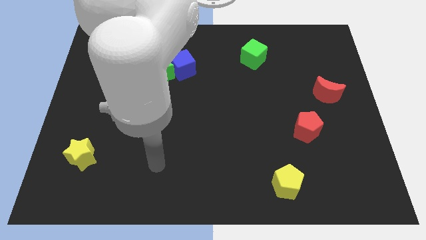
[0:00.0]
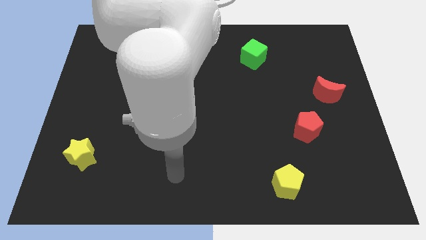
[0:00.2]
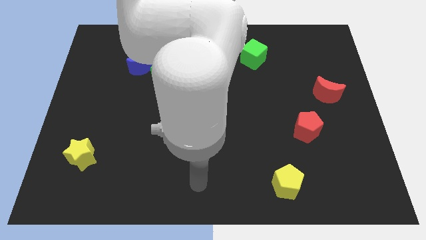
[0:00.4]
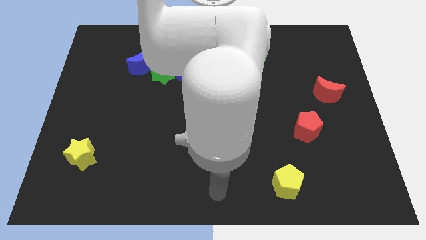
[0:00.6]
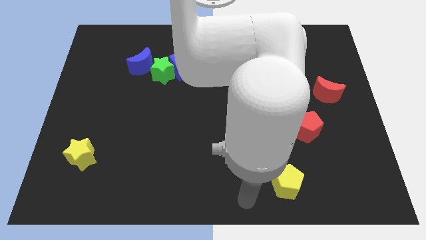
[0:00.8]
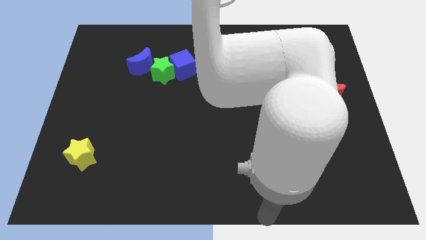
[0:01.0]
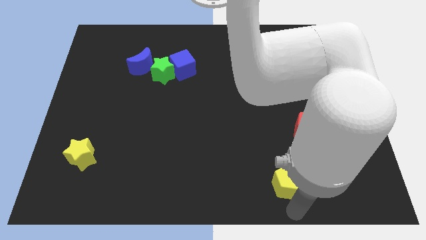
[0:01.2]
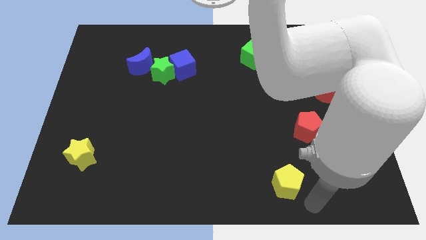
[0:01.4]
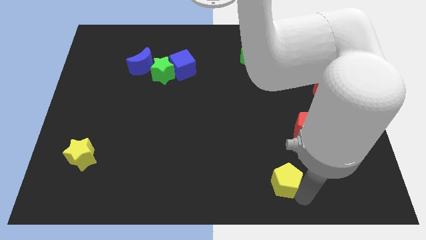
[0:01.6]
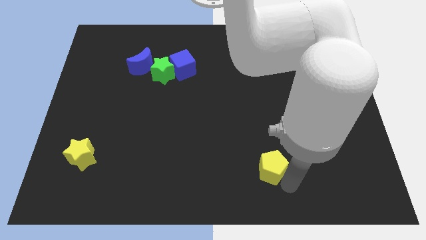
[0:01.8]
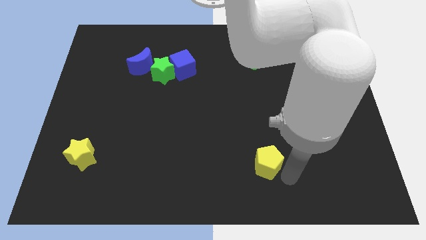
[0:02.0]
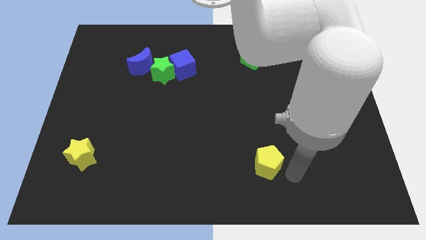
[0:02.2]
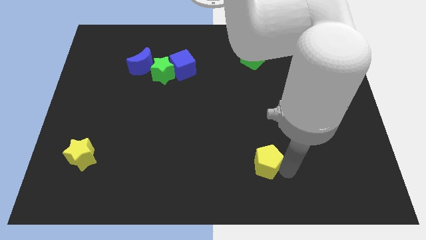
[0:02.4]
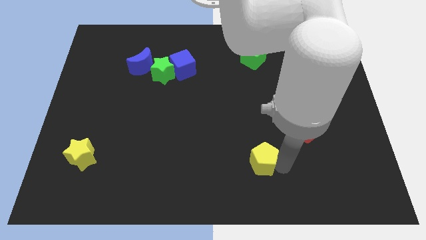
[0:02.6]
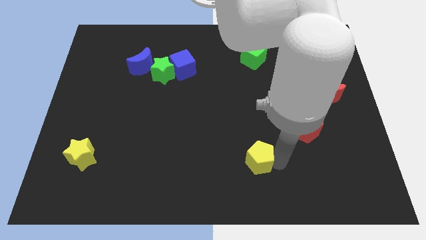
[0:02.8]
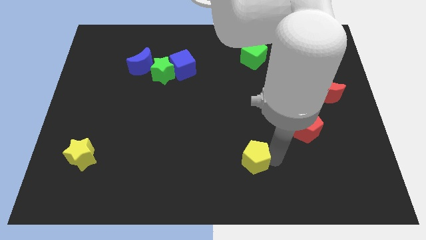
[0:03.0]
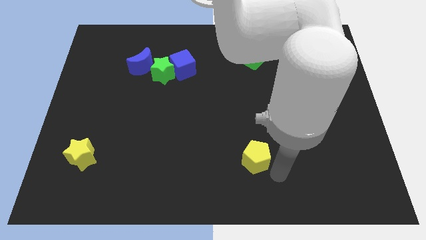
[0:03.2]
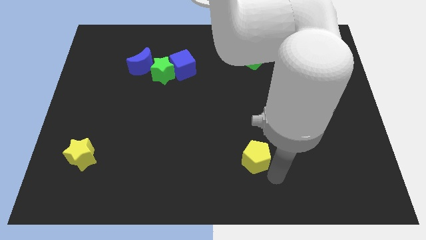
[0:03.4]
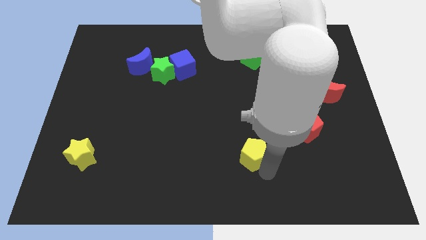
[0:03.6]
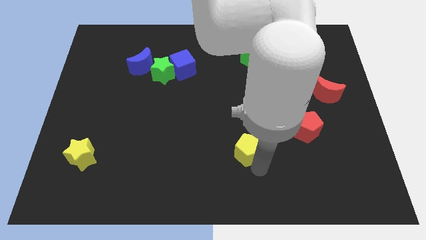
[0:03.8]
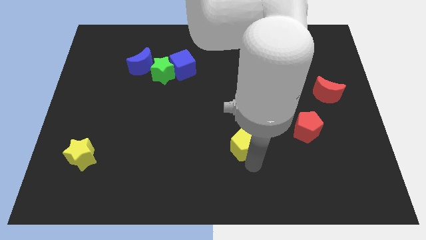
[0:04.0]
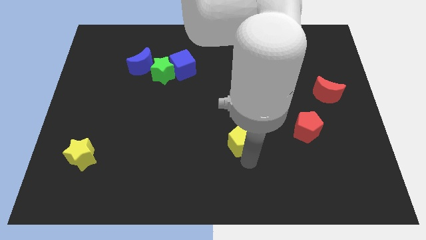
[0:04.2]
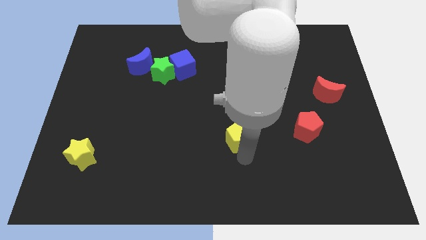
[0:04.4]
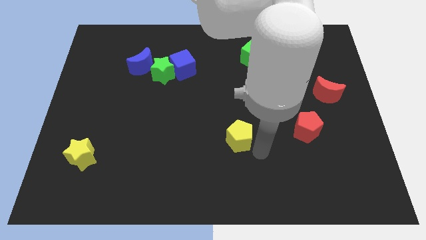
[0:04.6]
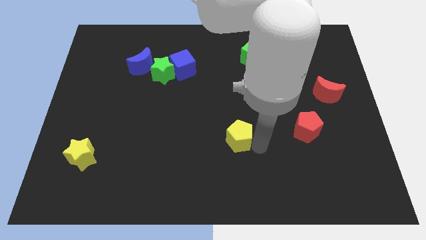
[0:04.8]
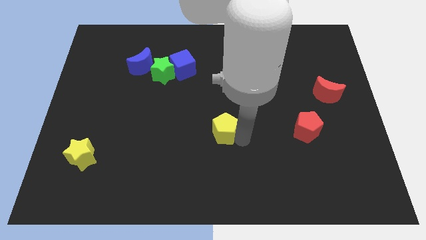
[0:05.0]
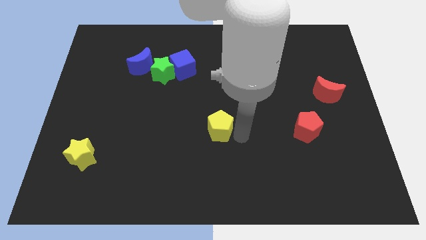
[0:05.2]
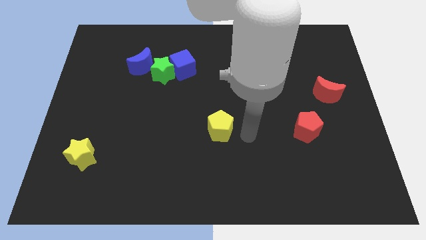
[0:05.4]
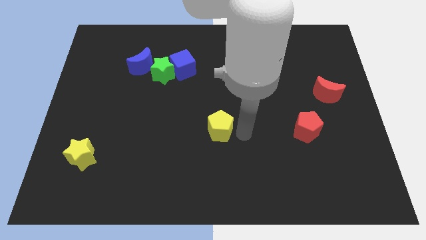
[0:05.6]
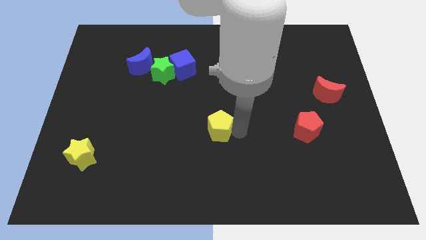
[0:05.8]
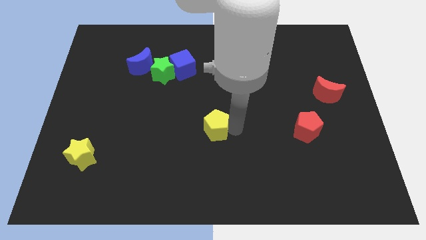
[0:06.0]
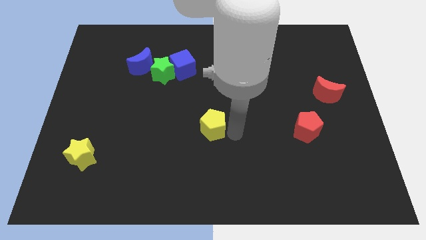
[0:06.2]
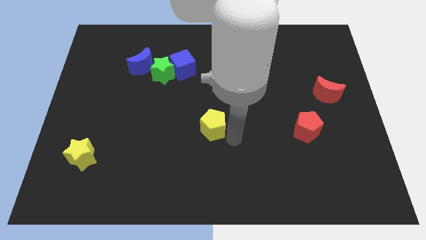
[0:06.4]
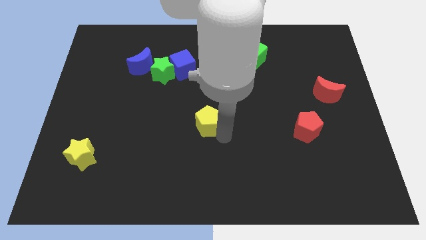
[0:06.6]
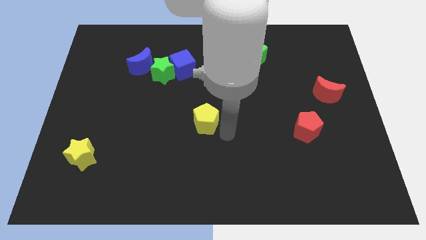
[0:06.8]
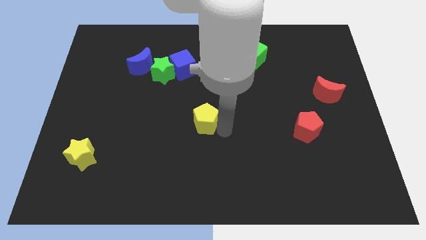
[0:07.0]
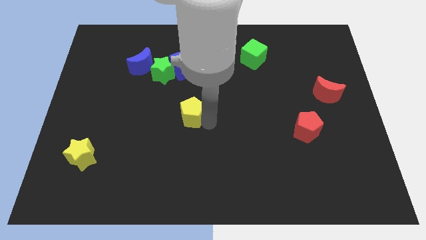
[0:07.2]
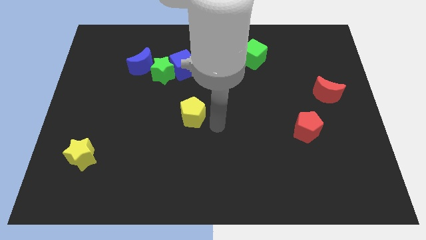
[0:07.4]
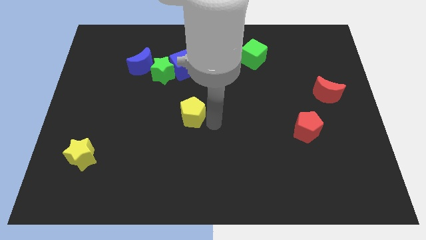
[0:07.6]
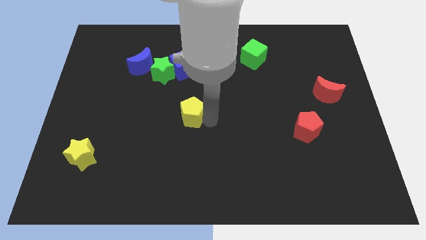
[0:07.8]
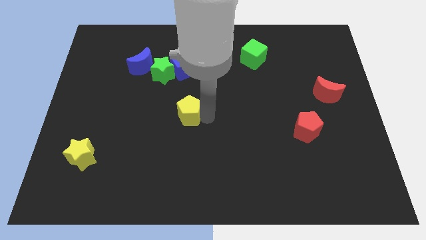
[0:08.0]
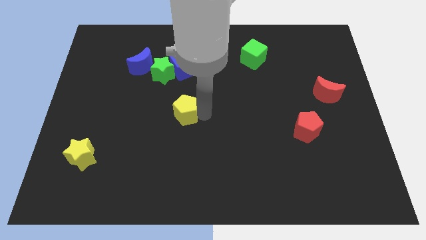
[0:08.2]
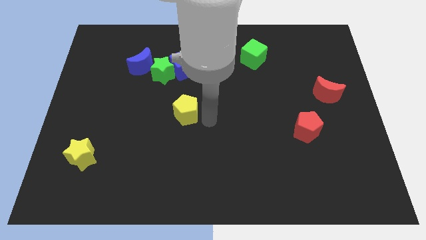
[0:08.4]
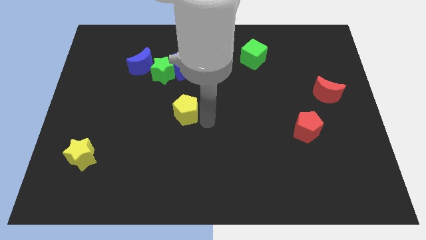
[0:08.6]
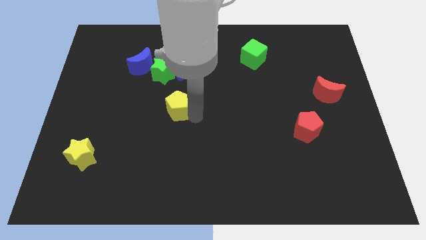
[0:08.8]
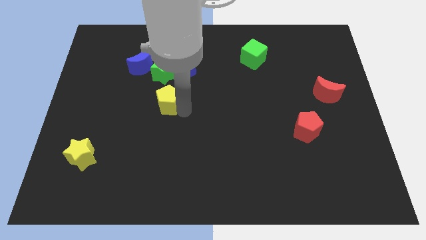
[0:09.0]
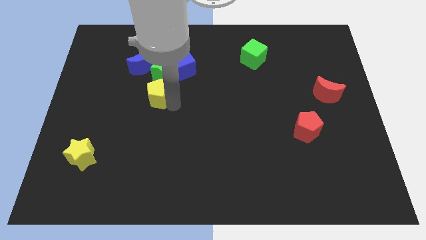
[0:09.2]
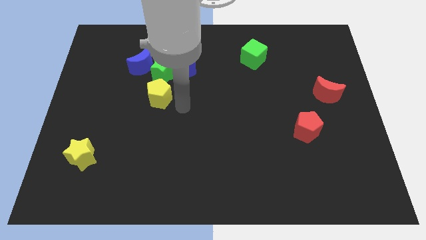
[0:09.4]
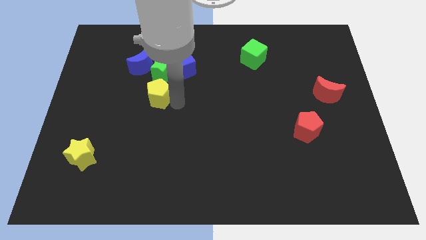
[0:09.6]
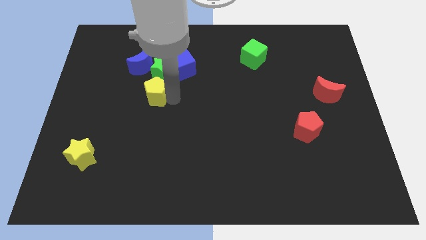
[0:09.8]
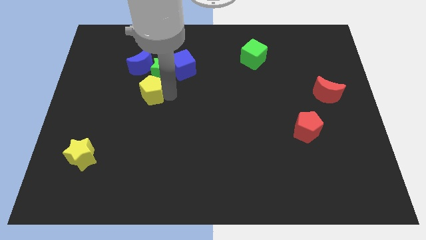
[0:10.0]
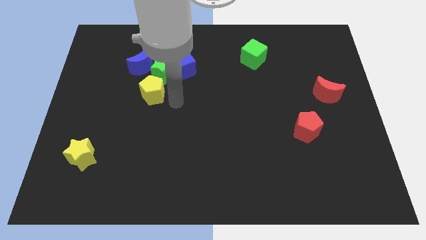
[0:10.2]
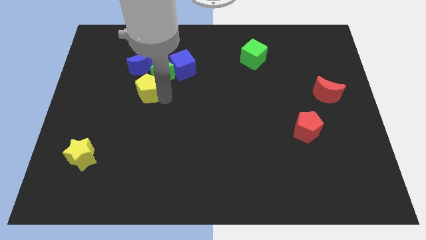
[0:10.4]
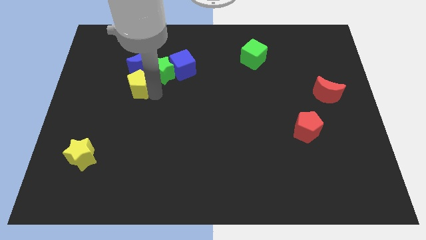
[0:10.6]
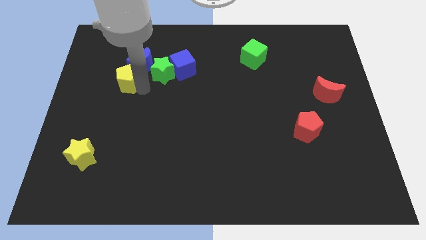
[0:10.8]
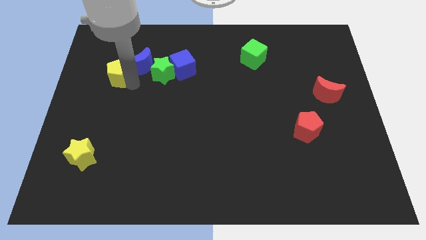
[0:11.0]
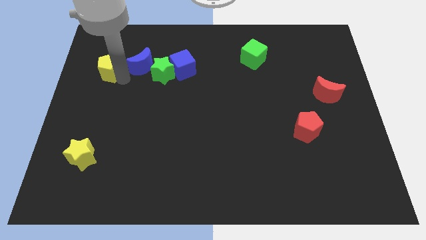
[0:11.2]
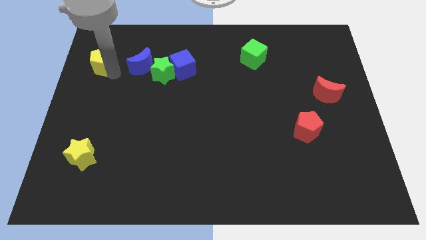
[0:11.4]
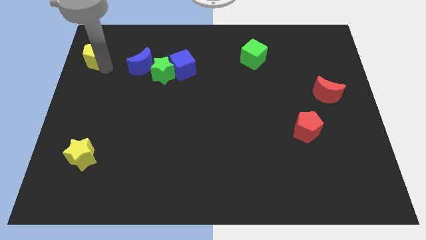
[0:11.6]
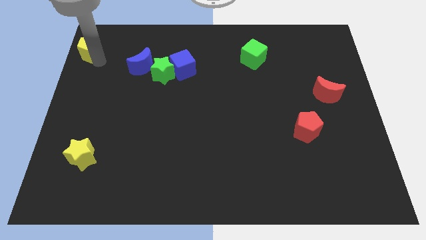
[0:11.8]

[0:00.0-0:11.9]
put the yellow pentagon to the upper left corner

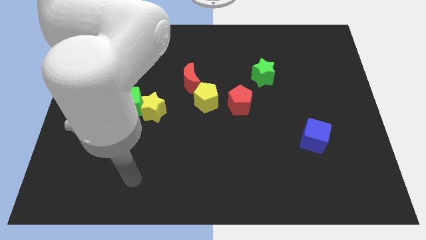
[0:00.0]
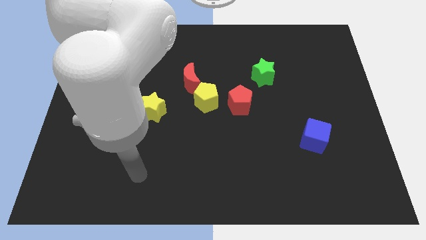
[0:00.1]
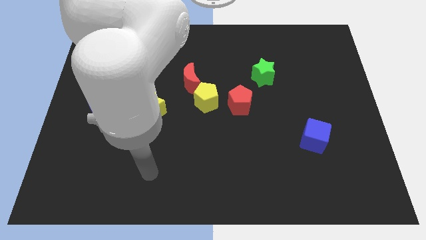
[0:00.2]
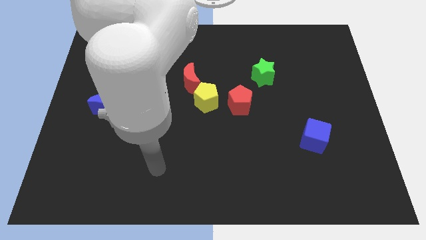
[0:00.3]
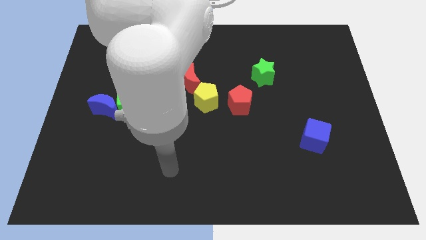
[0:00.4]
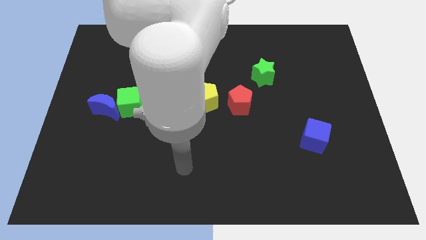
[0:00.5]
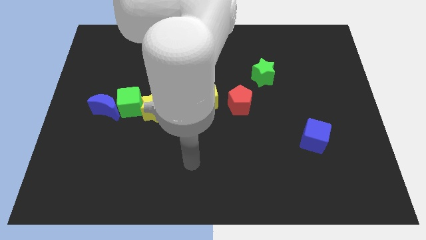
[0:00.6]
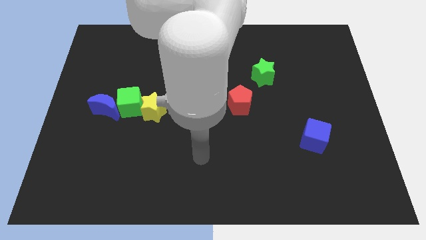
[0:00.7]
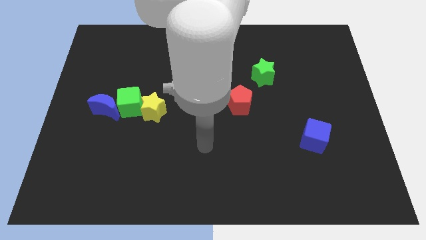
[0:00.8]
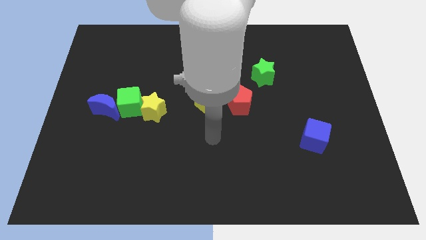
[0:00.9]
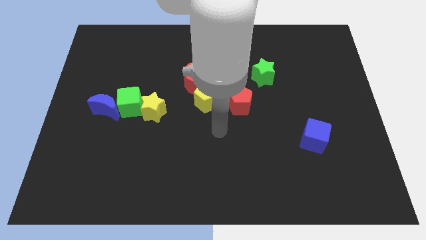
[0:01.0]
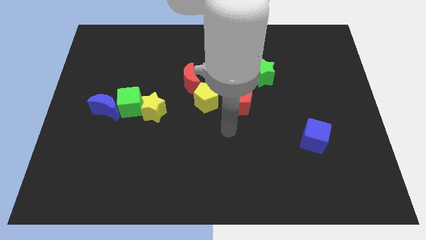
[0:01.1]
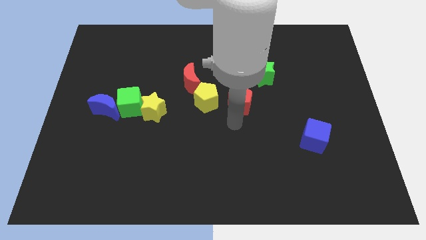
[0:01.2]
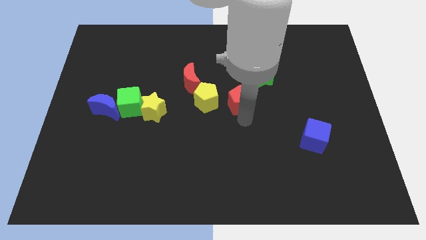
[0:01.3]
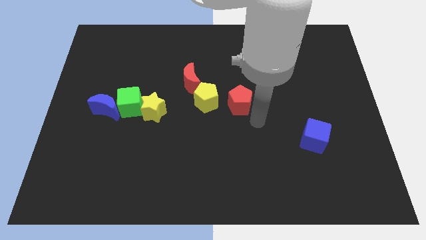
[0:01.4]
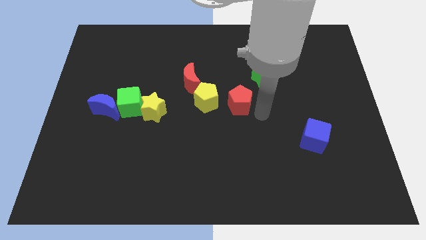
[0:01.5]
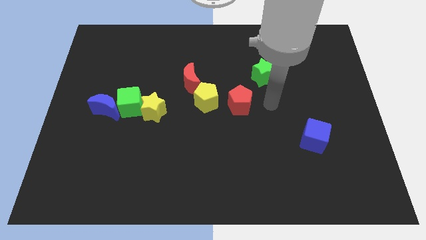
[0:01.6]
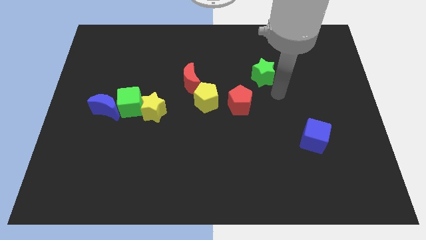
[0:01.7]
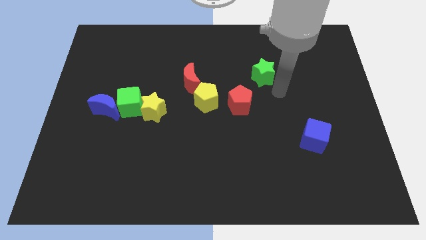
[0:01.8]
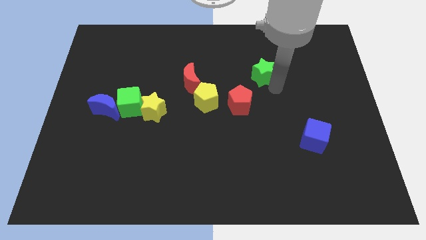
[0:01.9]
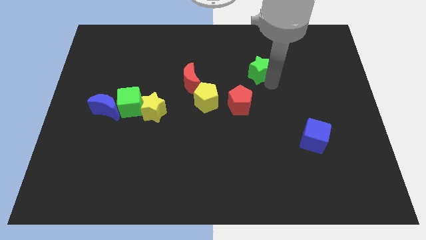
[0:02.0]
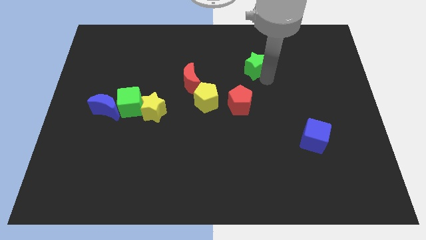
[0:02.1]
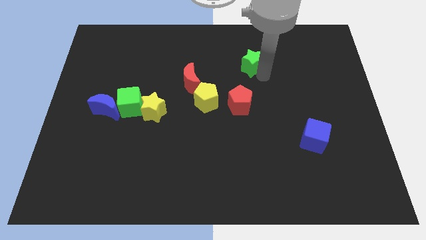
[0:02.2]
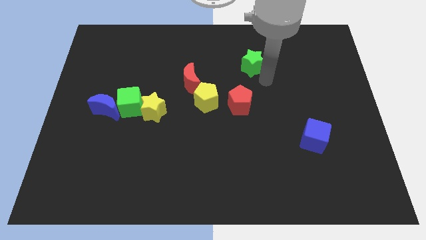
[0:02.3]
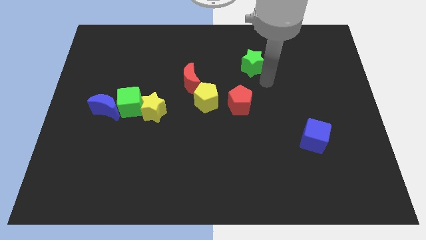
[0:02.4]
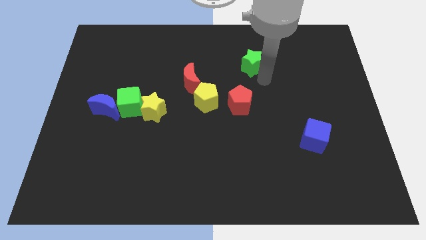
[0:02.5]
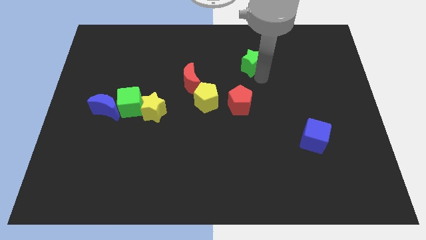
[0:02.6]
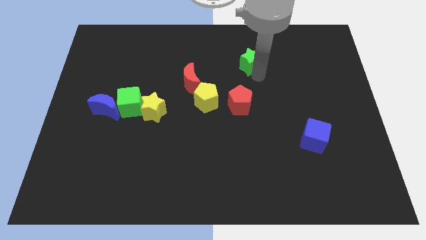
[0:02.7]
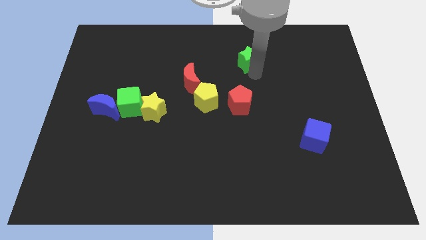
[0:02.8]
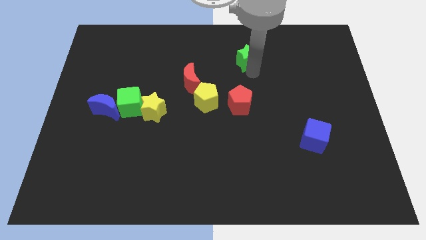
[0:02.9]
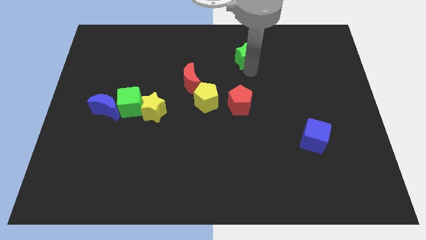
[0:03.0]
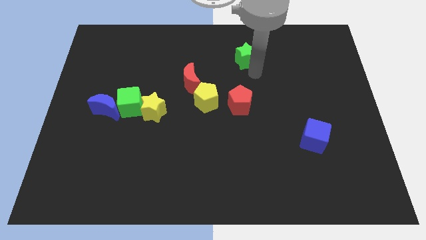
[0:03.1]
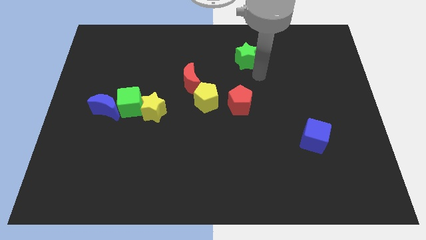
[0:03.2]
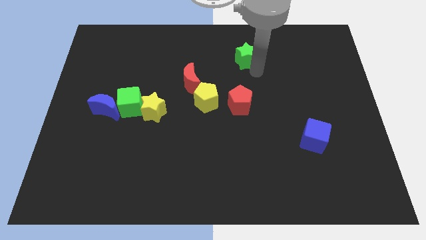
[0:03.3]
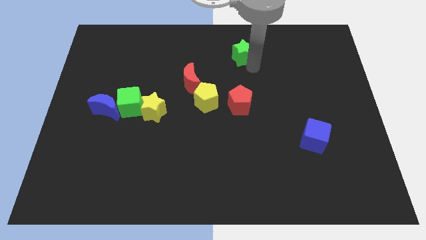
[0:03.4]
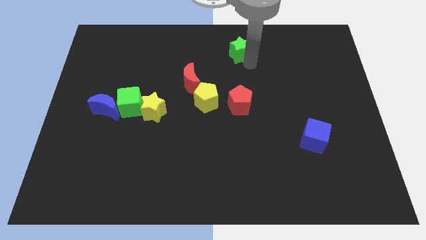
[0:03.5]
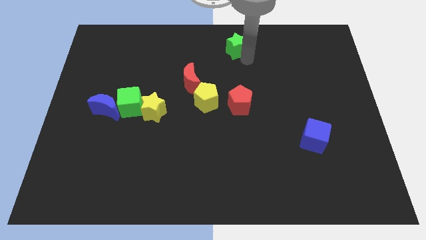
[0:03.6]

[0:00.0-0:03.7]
push the green star to the top side
